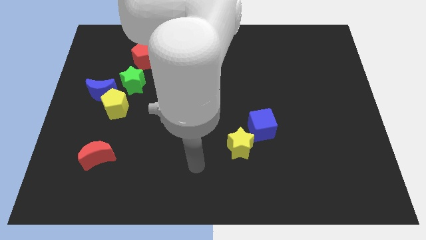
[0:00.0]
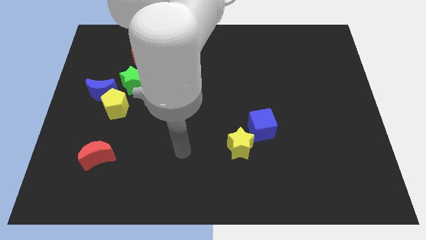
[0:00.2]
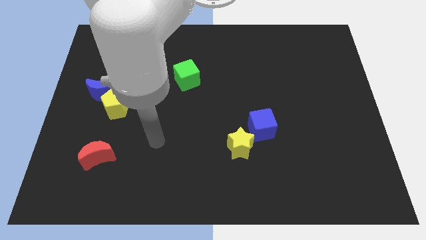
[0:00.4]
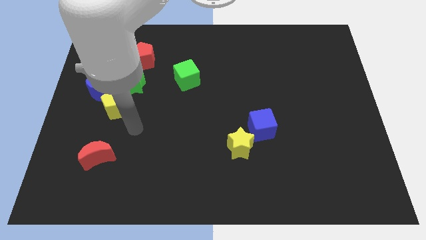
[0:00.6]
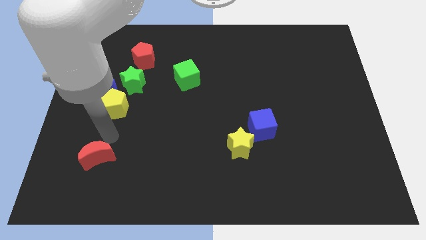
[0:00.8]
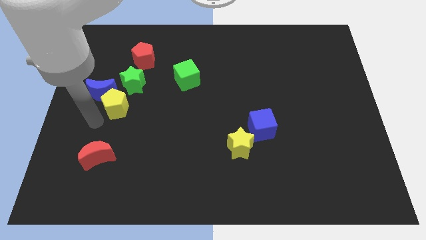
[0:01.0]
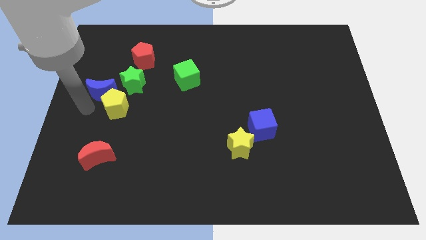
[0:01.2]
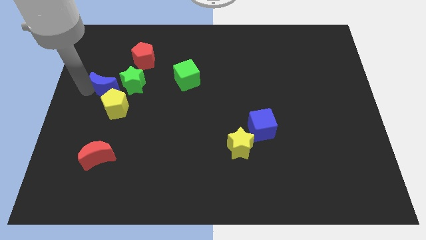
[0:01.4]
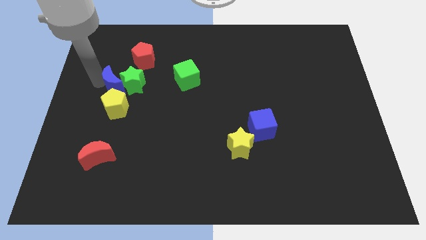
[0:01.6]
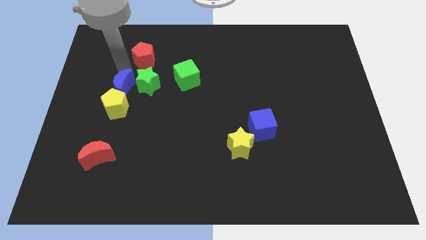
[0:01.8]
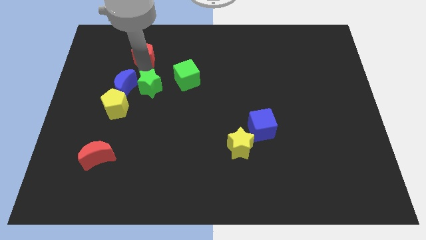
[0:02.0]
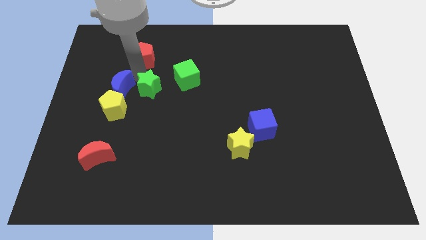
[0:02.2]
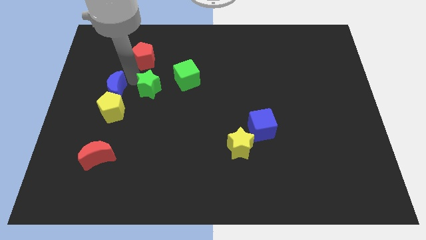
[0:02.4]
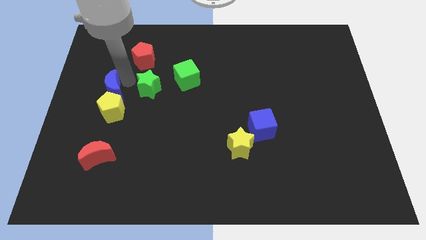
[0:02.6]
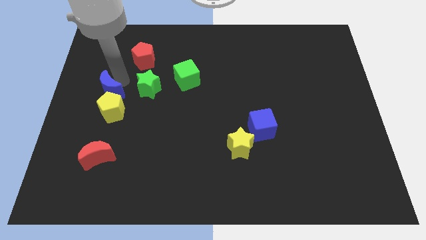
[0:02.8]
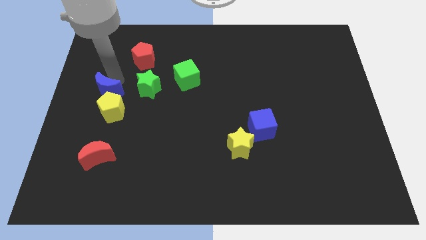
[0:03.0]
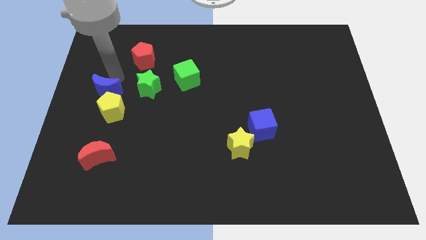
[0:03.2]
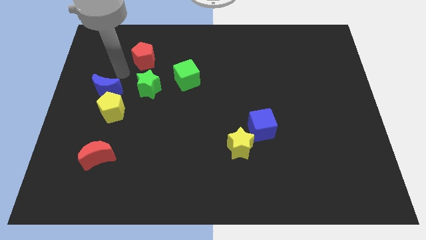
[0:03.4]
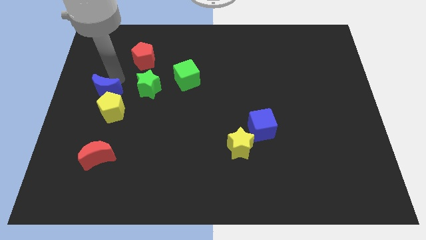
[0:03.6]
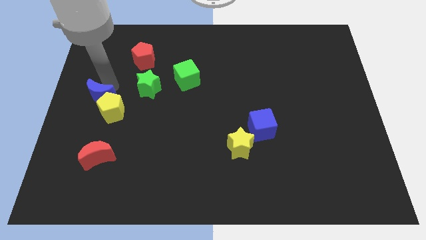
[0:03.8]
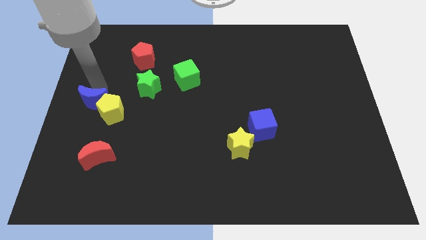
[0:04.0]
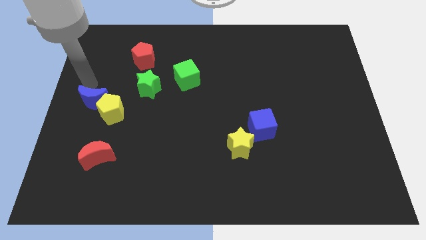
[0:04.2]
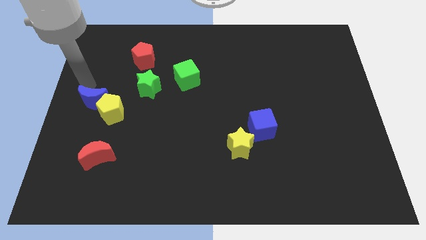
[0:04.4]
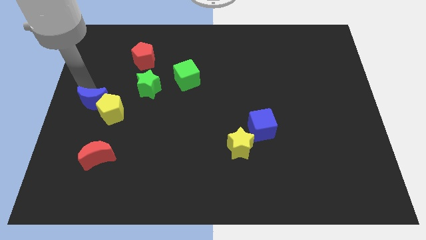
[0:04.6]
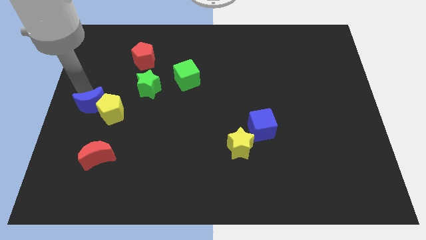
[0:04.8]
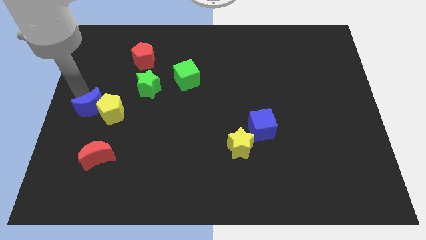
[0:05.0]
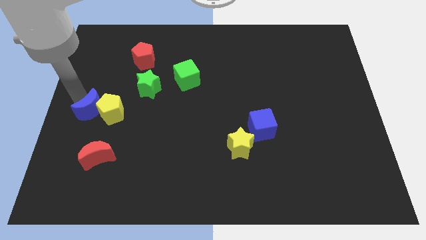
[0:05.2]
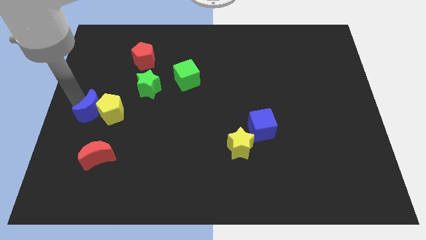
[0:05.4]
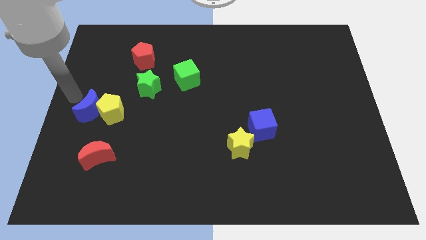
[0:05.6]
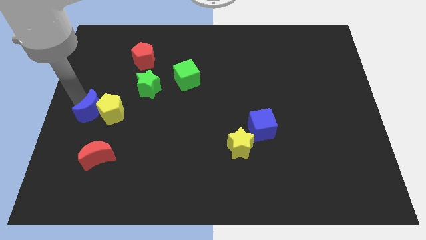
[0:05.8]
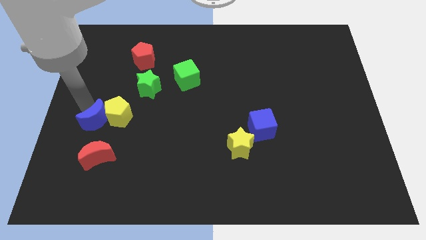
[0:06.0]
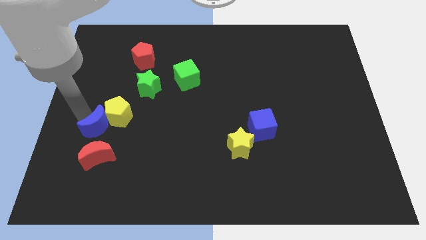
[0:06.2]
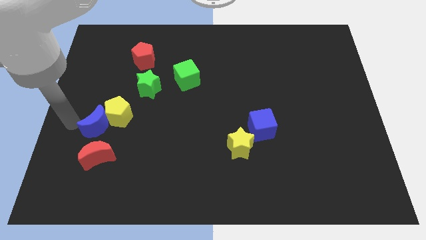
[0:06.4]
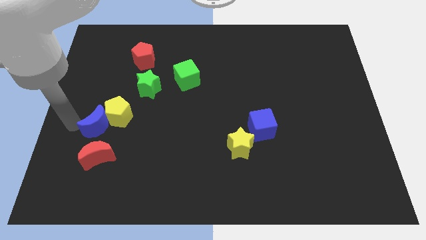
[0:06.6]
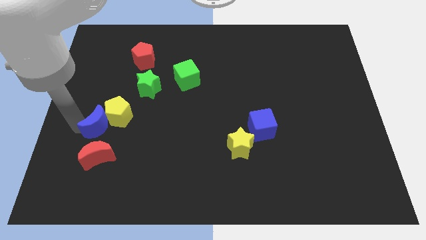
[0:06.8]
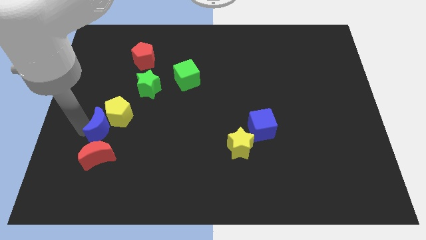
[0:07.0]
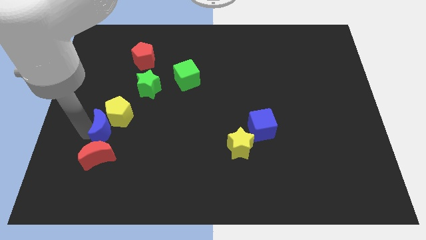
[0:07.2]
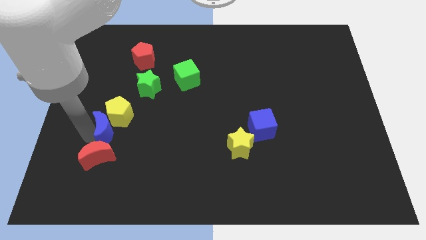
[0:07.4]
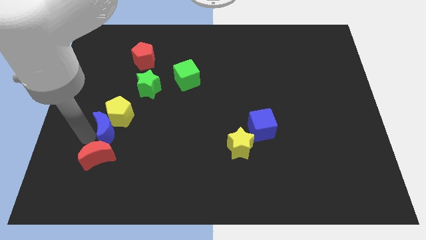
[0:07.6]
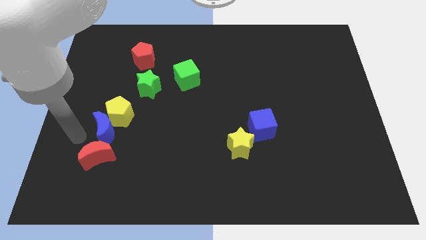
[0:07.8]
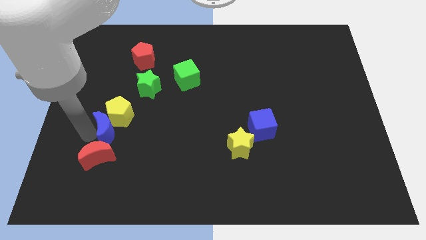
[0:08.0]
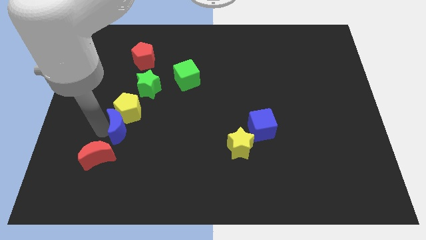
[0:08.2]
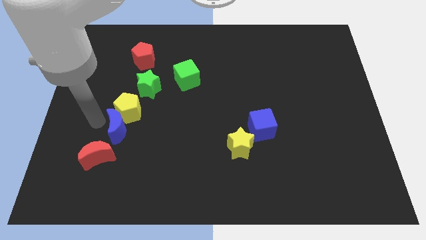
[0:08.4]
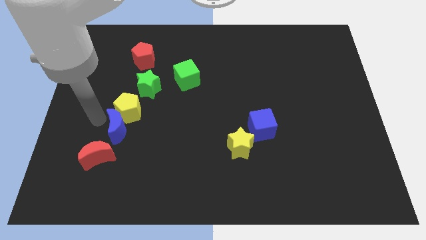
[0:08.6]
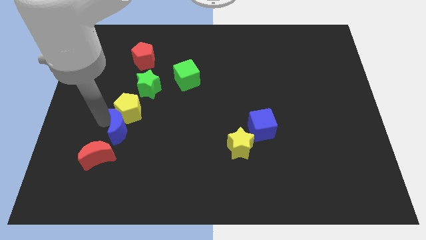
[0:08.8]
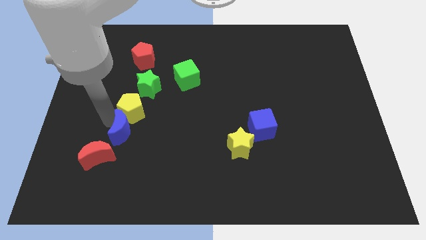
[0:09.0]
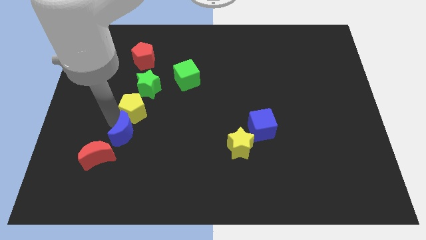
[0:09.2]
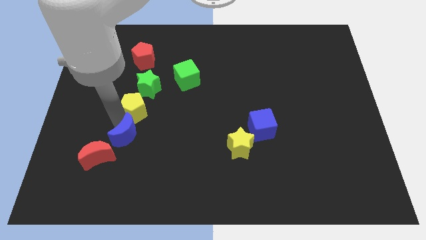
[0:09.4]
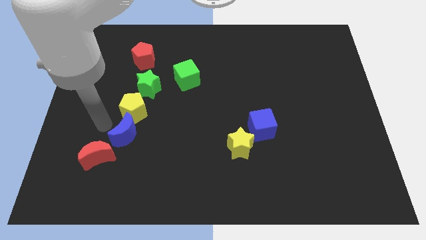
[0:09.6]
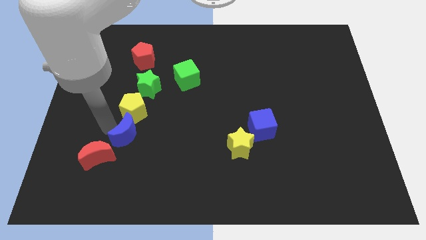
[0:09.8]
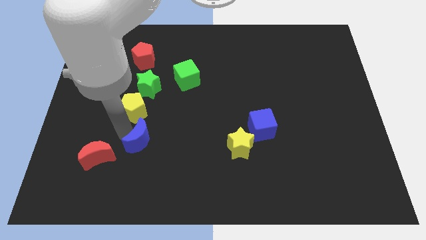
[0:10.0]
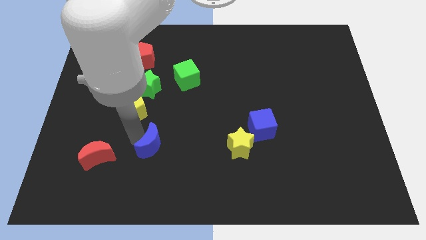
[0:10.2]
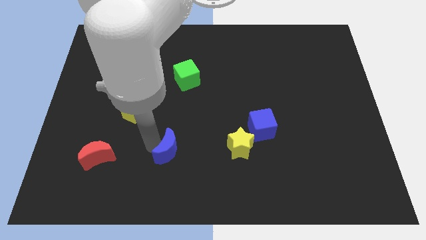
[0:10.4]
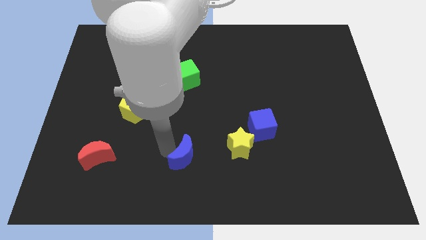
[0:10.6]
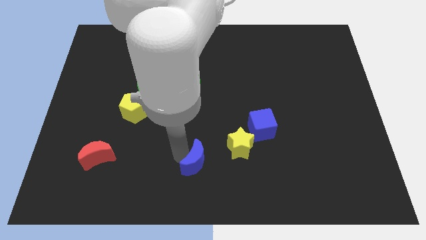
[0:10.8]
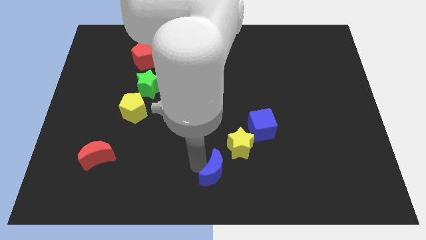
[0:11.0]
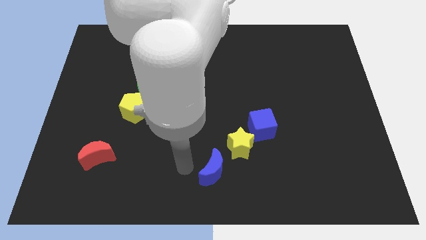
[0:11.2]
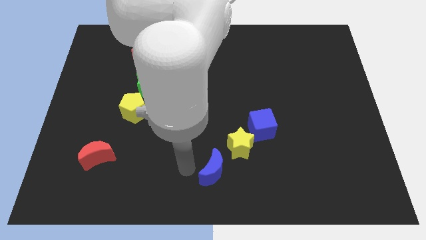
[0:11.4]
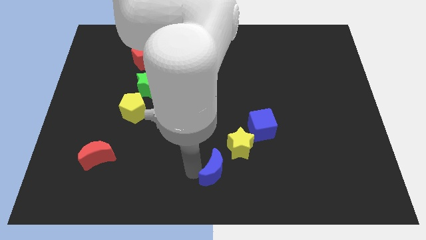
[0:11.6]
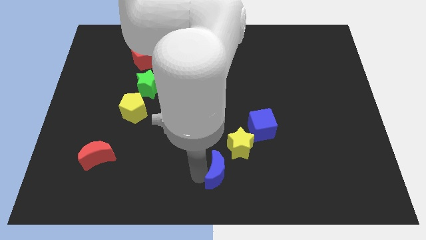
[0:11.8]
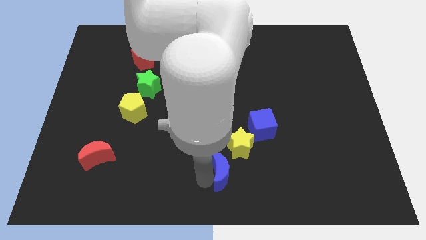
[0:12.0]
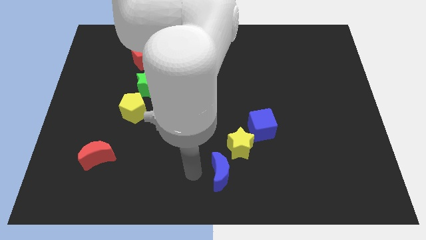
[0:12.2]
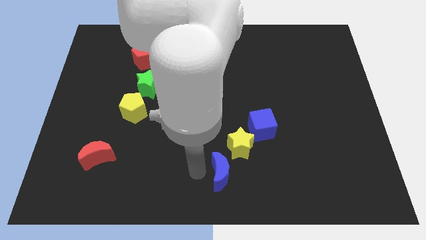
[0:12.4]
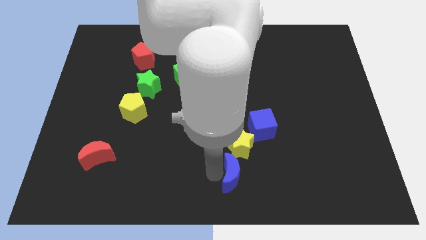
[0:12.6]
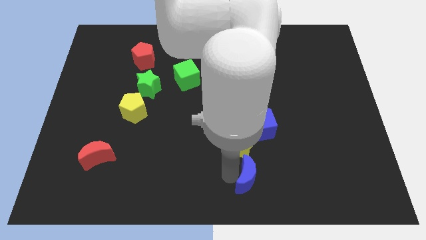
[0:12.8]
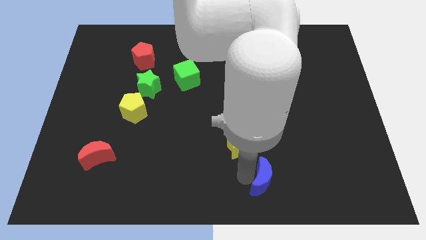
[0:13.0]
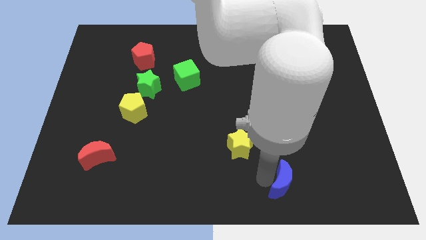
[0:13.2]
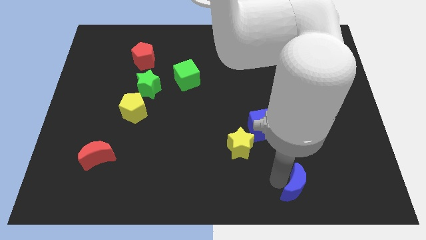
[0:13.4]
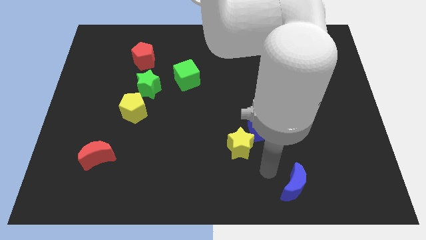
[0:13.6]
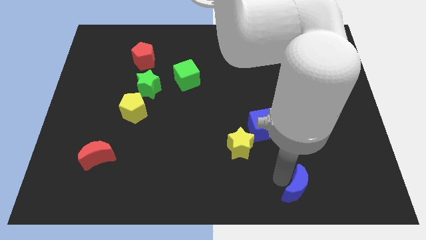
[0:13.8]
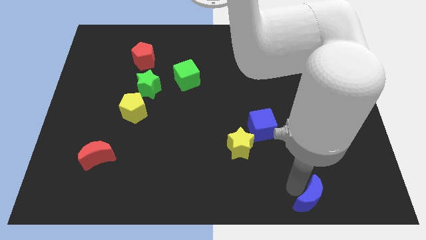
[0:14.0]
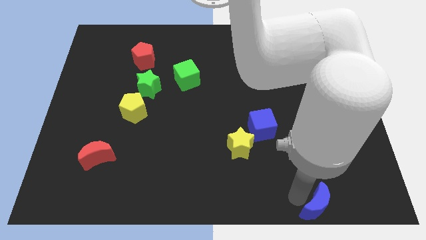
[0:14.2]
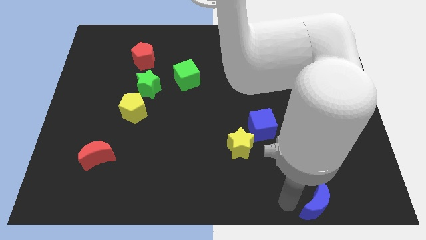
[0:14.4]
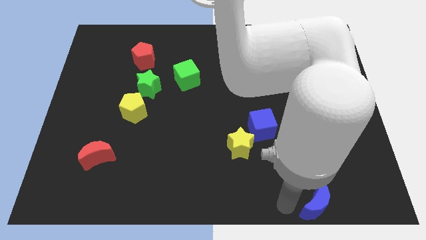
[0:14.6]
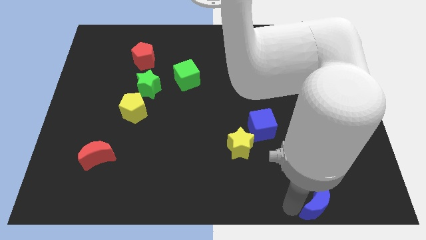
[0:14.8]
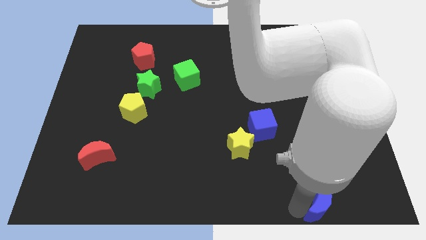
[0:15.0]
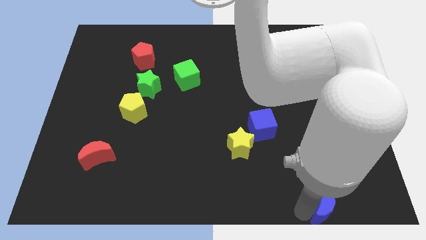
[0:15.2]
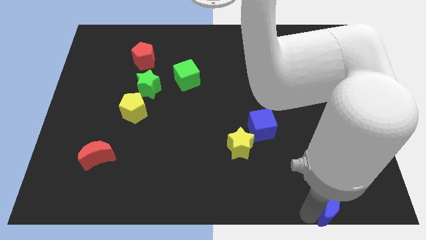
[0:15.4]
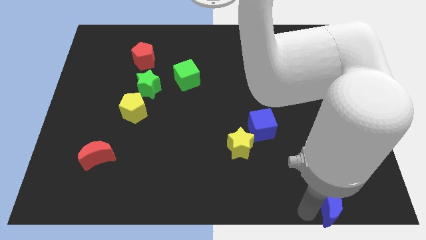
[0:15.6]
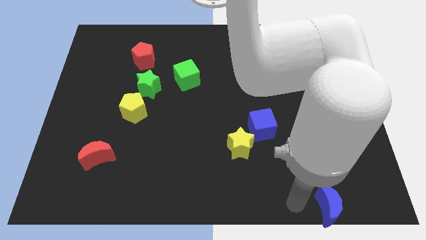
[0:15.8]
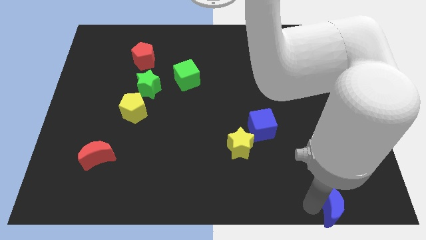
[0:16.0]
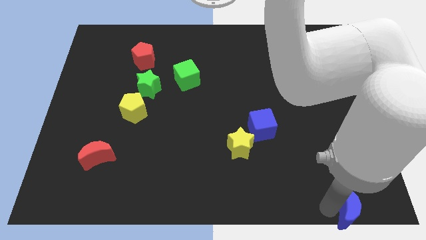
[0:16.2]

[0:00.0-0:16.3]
slide the blue moon to the bottom right
